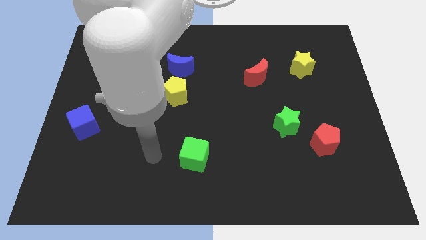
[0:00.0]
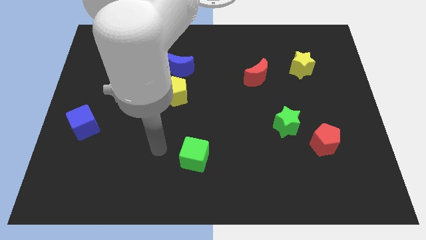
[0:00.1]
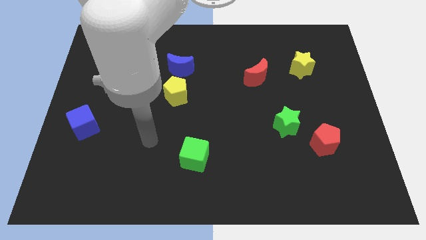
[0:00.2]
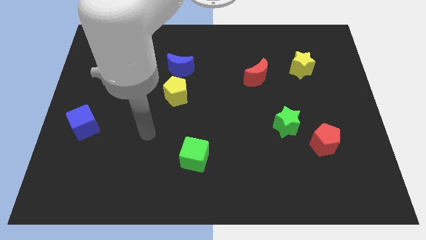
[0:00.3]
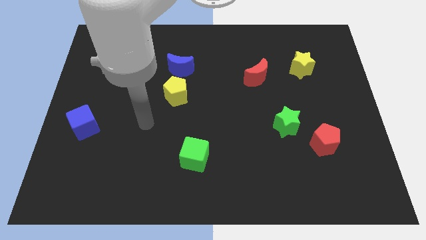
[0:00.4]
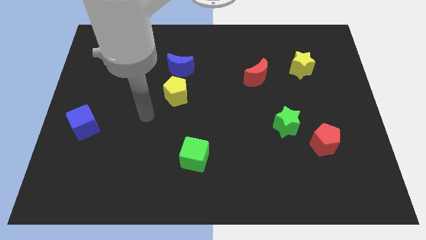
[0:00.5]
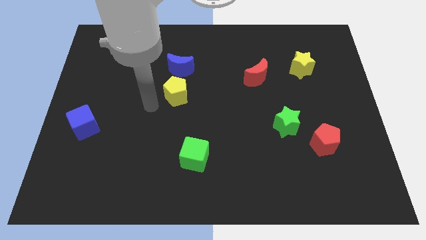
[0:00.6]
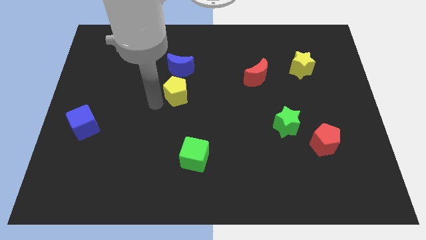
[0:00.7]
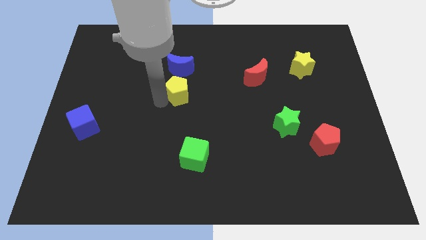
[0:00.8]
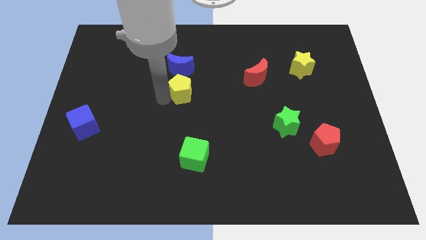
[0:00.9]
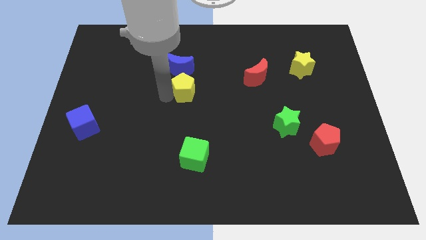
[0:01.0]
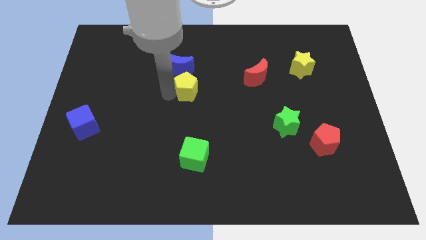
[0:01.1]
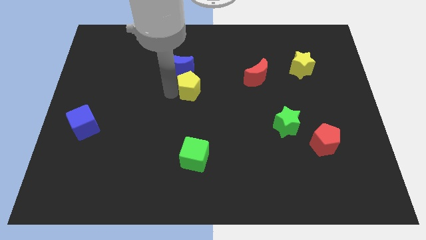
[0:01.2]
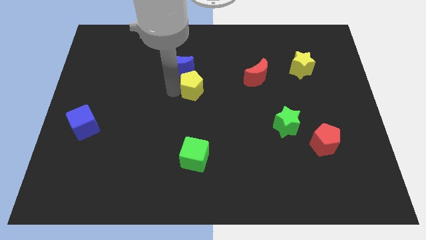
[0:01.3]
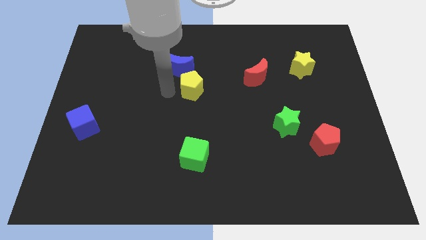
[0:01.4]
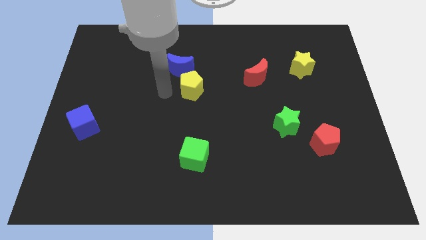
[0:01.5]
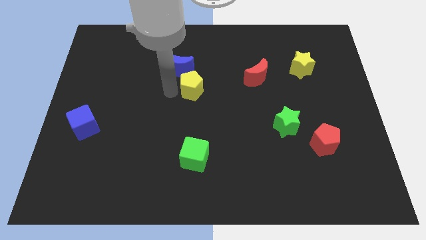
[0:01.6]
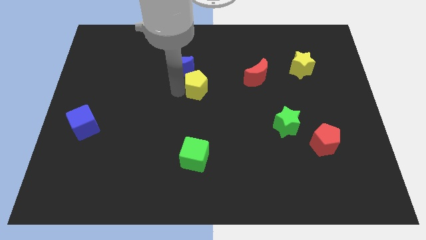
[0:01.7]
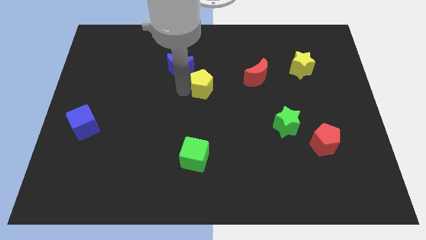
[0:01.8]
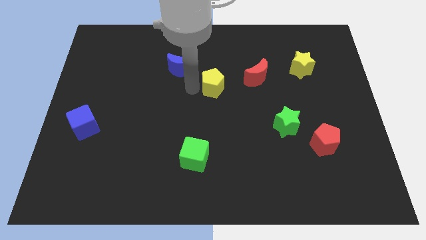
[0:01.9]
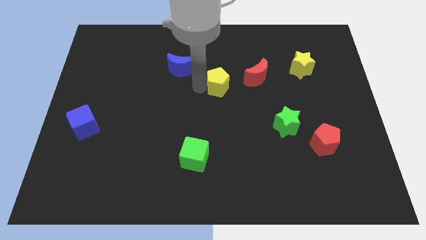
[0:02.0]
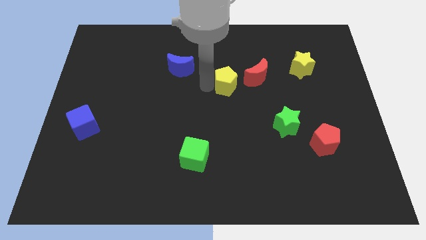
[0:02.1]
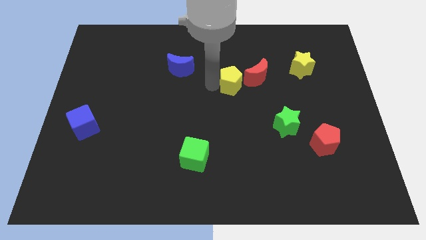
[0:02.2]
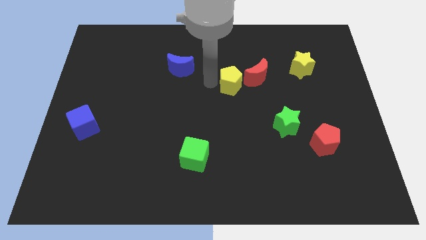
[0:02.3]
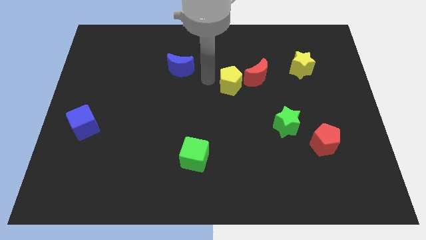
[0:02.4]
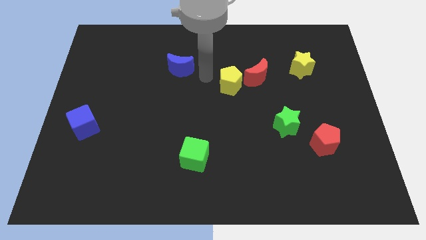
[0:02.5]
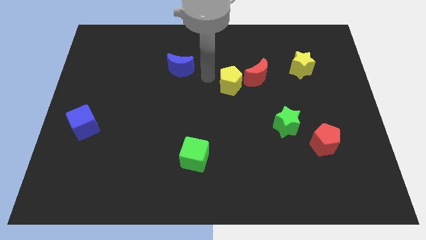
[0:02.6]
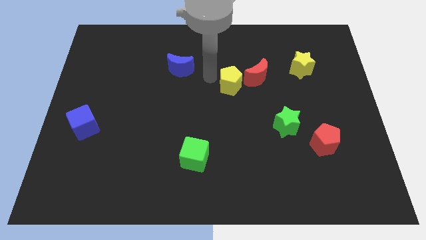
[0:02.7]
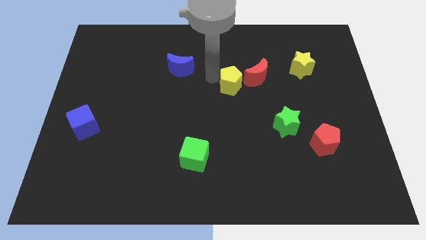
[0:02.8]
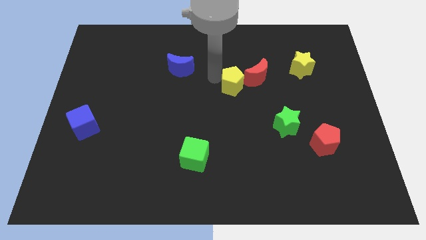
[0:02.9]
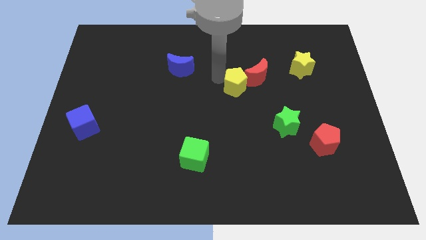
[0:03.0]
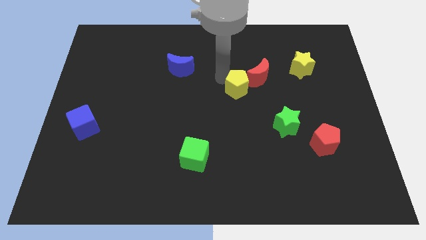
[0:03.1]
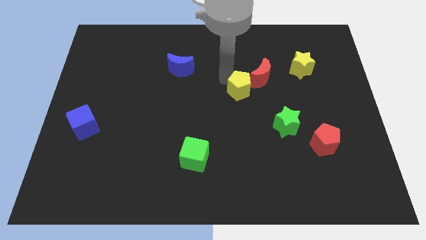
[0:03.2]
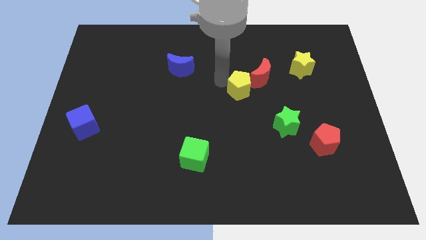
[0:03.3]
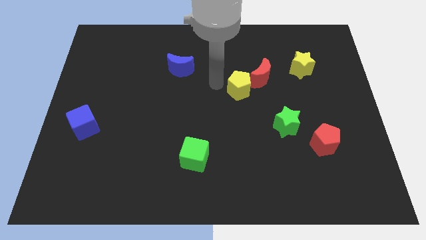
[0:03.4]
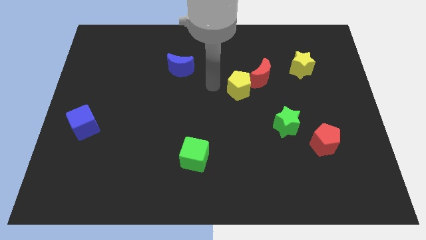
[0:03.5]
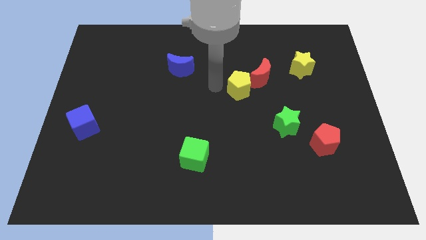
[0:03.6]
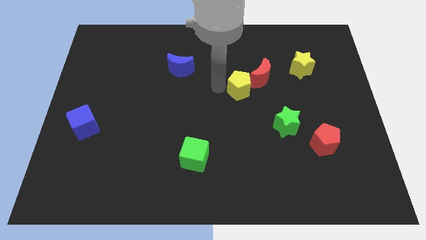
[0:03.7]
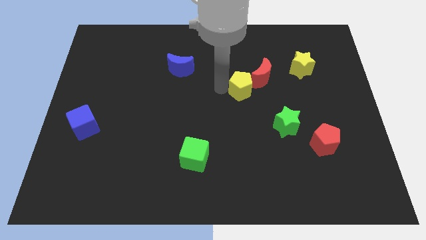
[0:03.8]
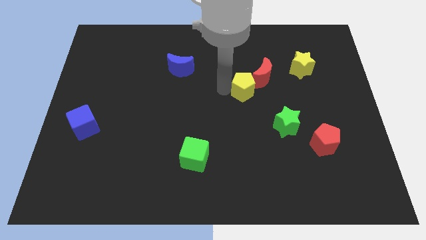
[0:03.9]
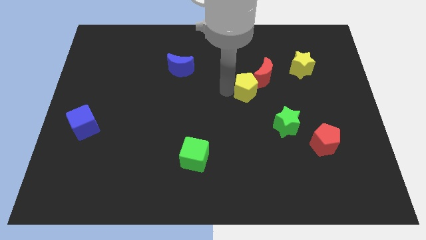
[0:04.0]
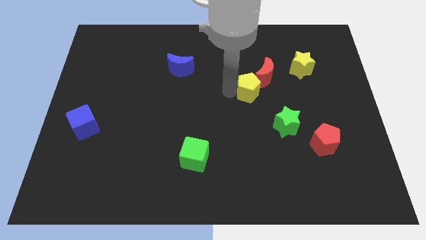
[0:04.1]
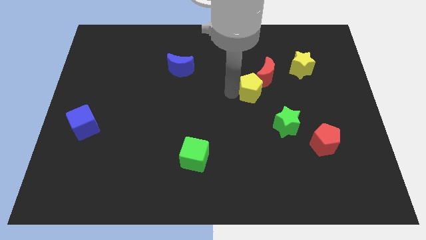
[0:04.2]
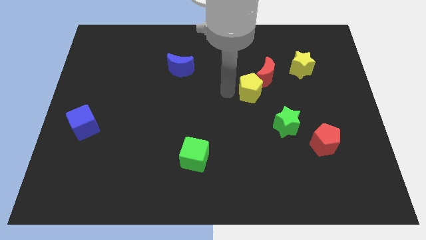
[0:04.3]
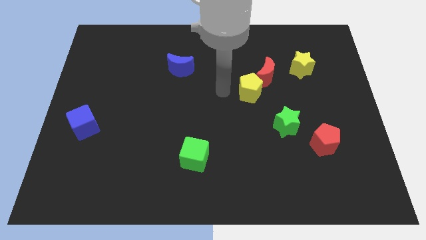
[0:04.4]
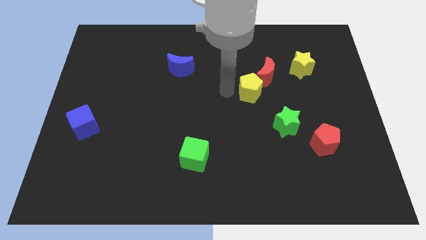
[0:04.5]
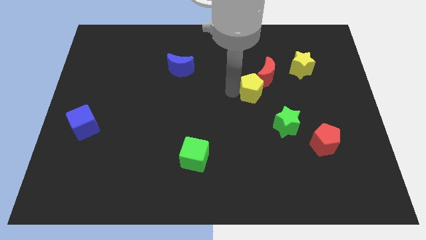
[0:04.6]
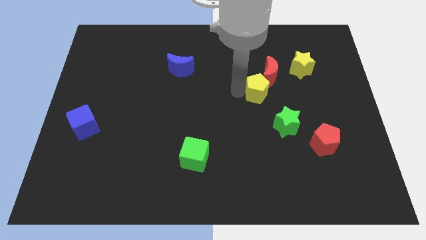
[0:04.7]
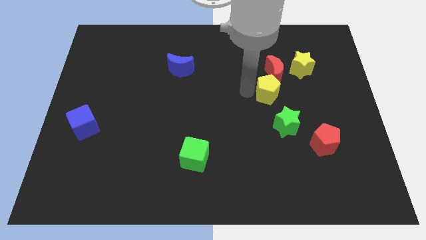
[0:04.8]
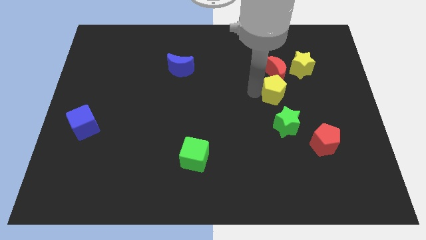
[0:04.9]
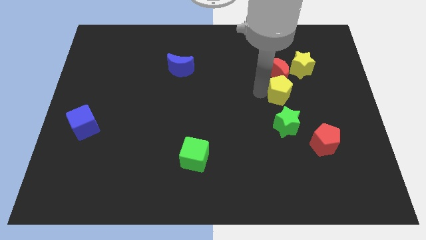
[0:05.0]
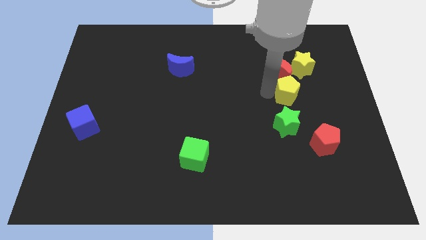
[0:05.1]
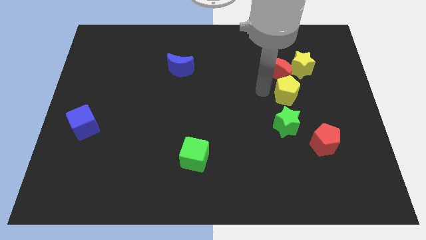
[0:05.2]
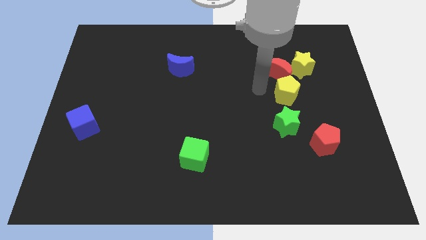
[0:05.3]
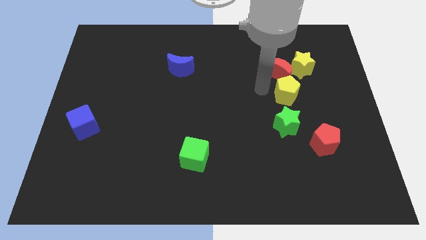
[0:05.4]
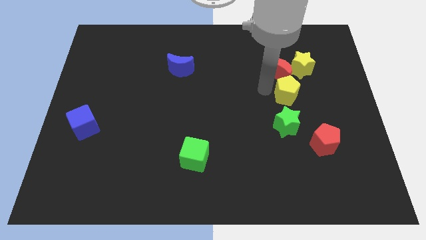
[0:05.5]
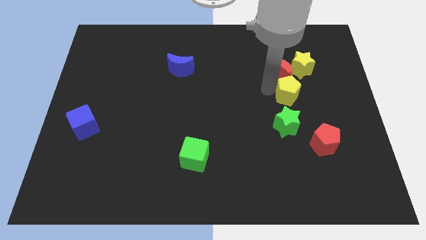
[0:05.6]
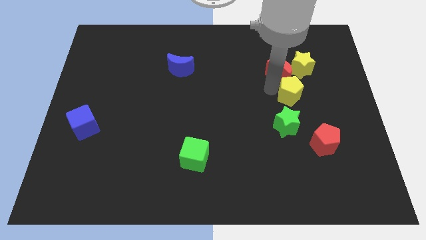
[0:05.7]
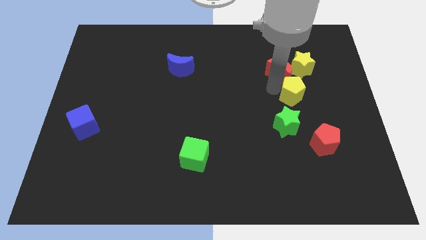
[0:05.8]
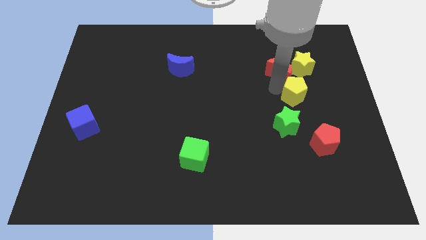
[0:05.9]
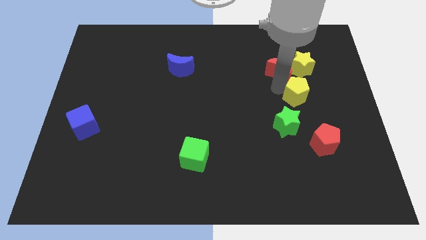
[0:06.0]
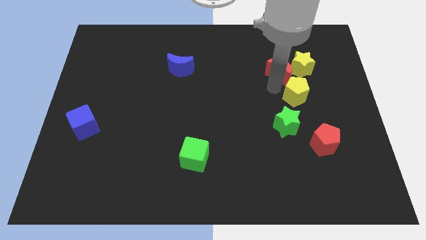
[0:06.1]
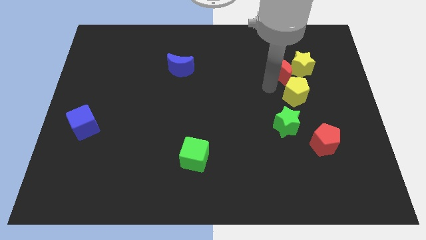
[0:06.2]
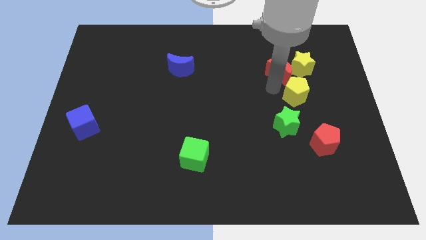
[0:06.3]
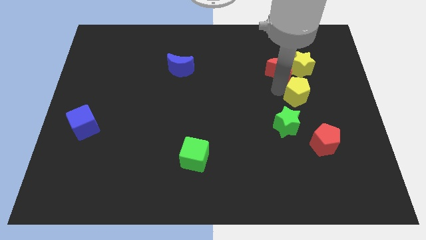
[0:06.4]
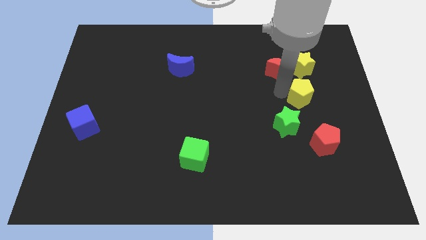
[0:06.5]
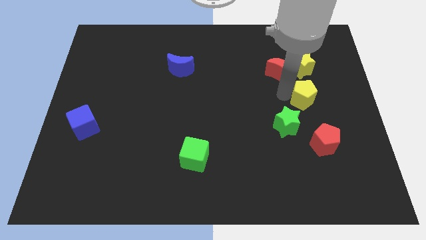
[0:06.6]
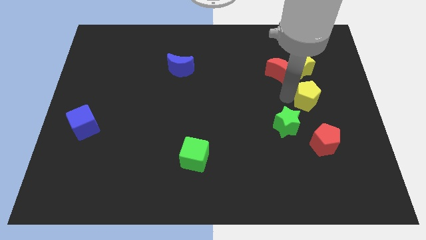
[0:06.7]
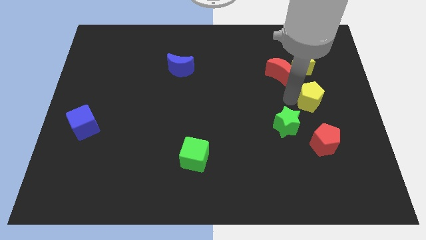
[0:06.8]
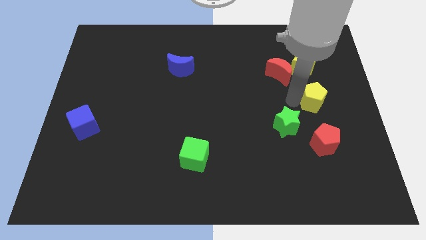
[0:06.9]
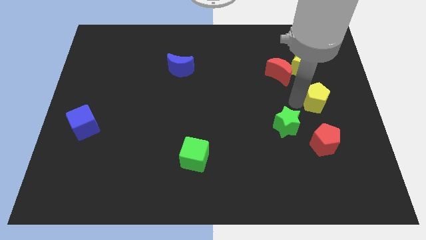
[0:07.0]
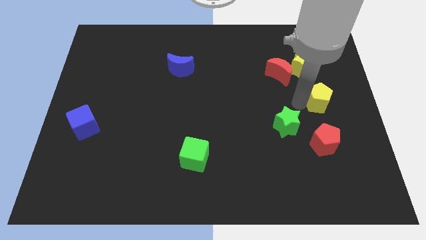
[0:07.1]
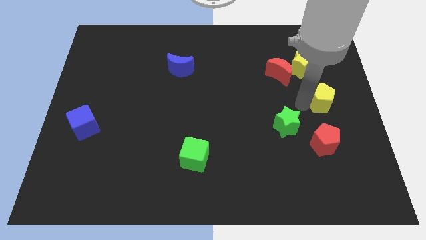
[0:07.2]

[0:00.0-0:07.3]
push the yellow pentagon to the right side
